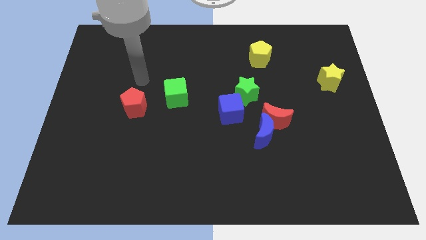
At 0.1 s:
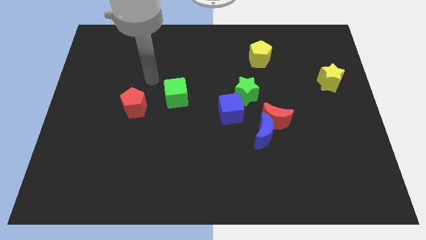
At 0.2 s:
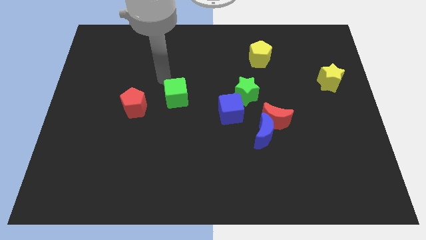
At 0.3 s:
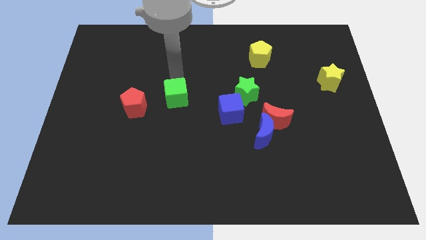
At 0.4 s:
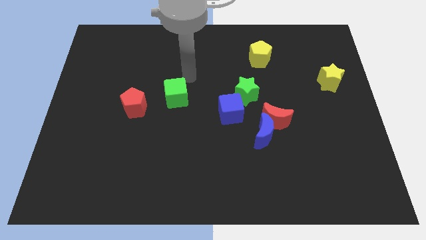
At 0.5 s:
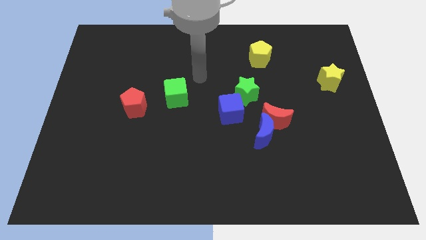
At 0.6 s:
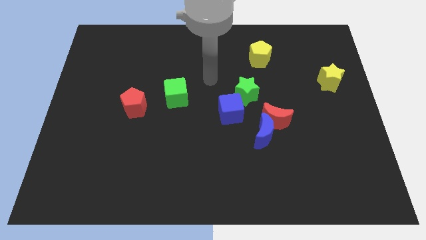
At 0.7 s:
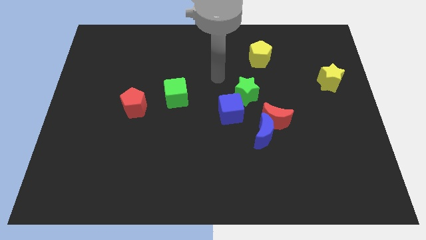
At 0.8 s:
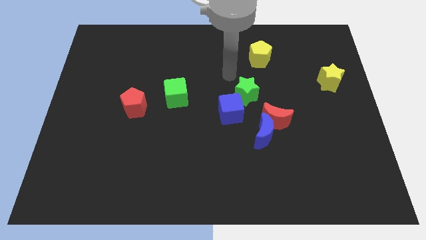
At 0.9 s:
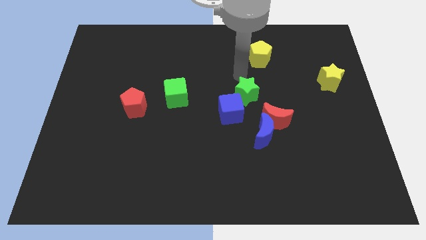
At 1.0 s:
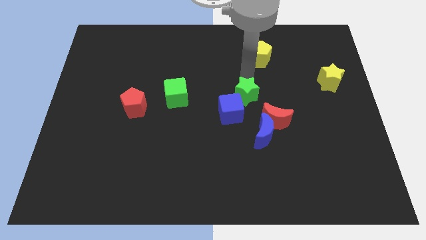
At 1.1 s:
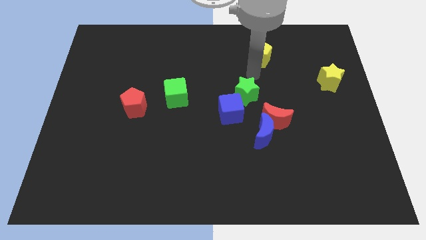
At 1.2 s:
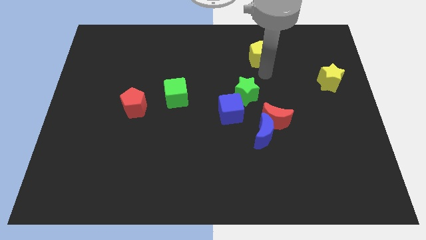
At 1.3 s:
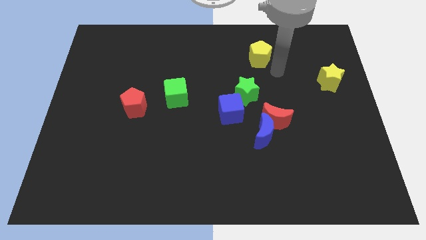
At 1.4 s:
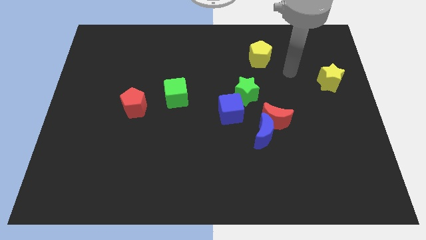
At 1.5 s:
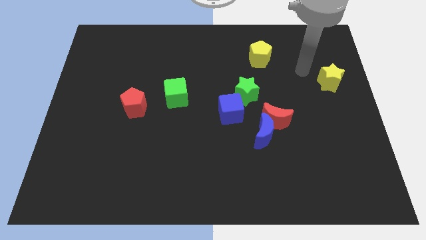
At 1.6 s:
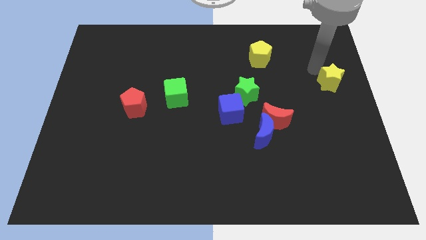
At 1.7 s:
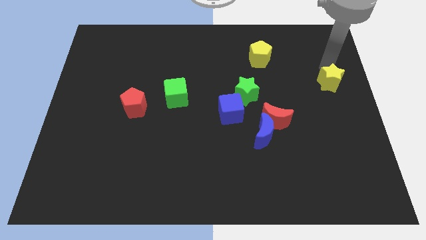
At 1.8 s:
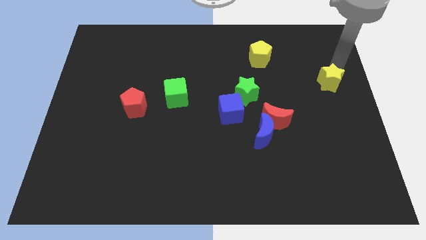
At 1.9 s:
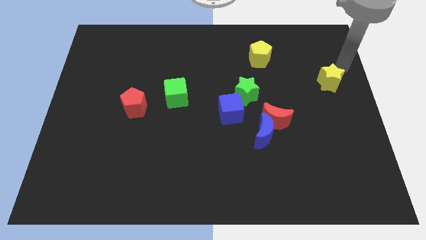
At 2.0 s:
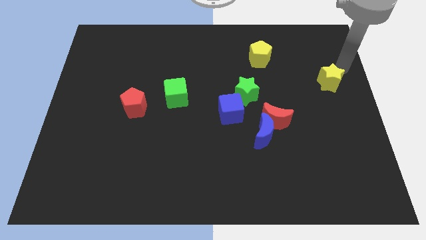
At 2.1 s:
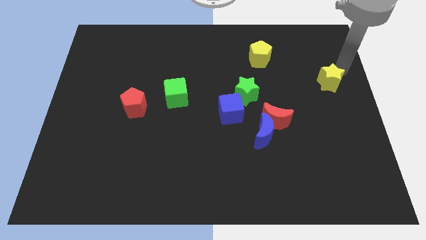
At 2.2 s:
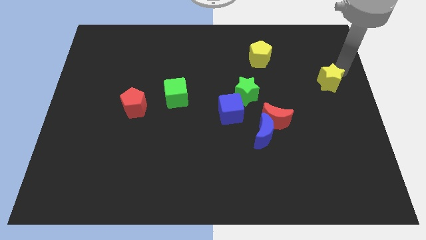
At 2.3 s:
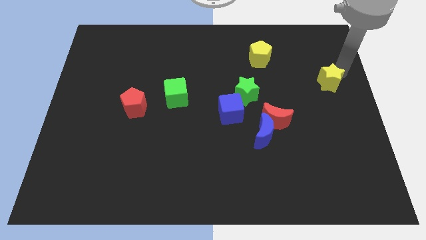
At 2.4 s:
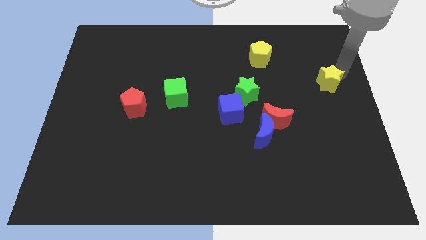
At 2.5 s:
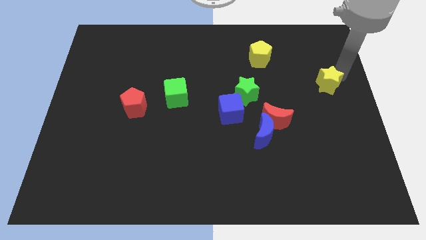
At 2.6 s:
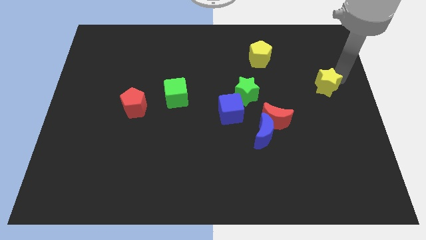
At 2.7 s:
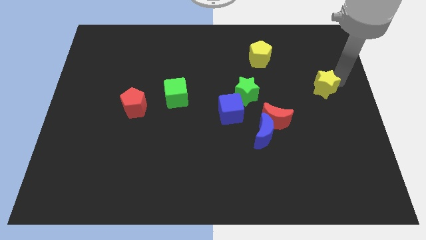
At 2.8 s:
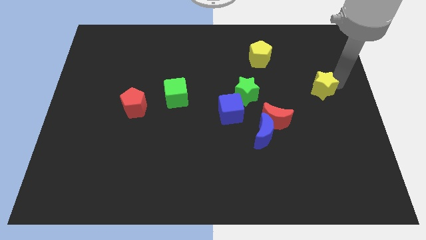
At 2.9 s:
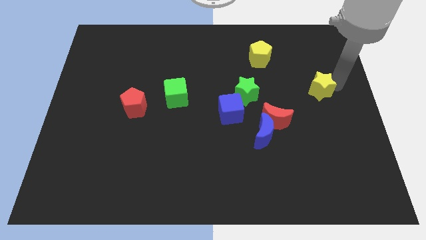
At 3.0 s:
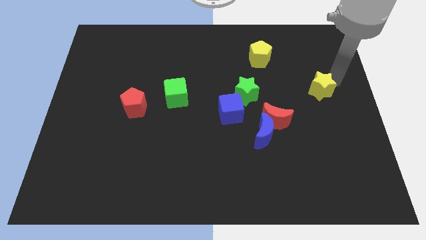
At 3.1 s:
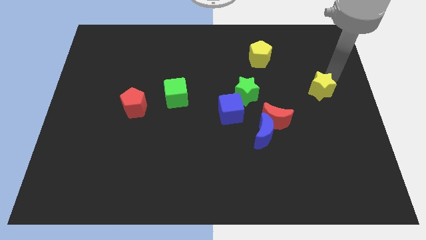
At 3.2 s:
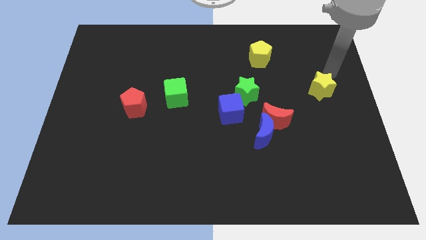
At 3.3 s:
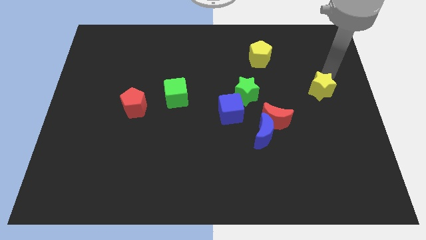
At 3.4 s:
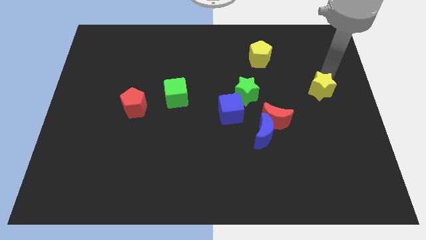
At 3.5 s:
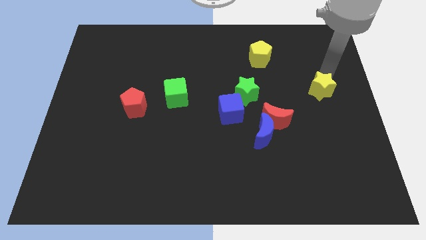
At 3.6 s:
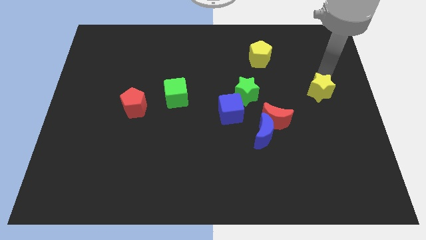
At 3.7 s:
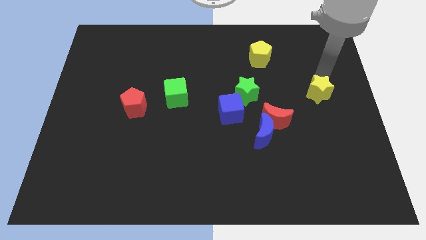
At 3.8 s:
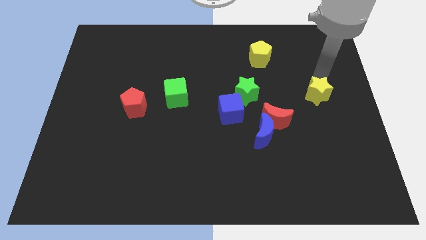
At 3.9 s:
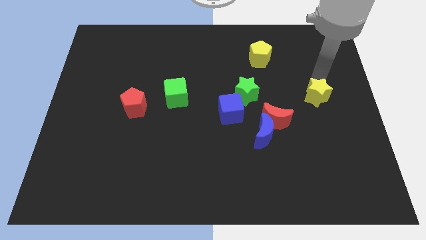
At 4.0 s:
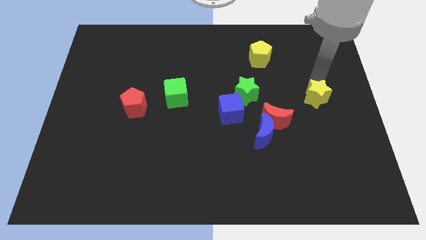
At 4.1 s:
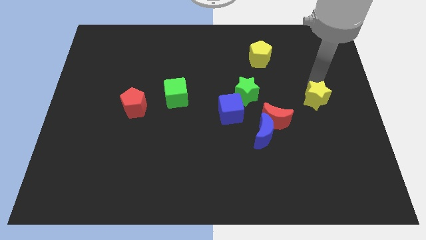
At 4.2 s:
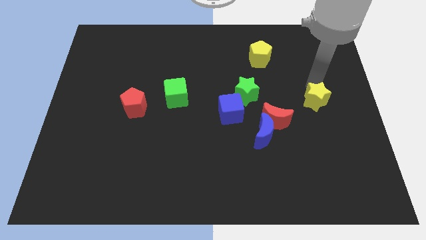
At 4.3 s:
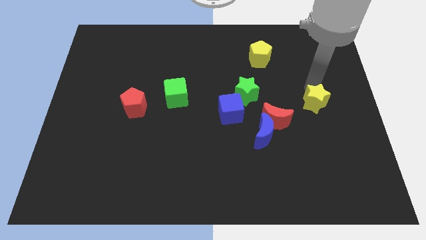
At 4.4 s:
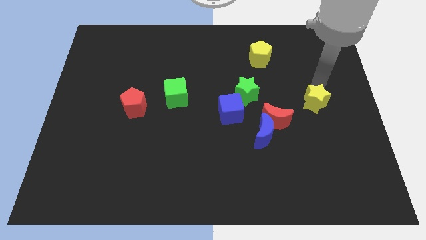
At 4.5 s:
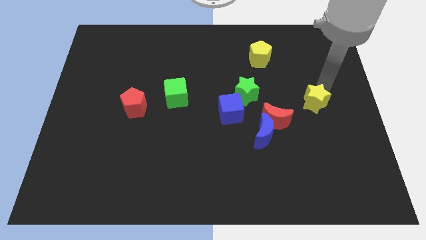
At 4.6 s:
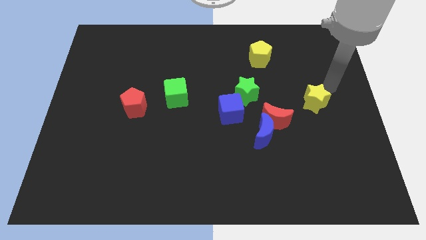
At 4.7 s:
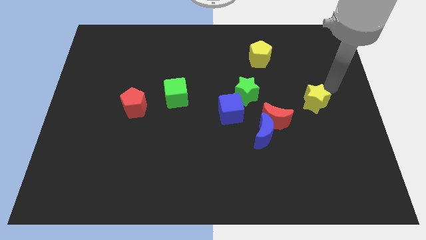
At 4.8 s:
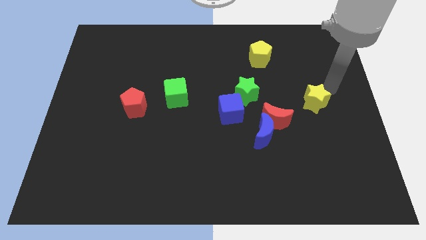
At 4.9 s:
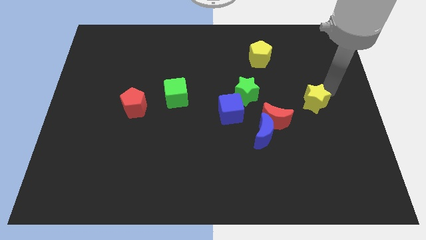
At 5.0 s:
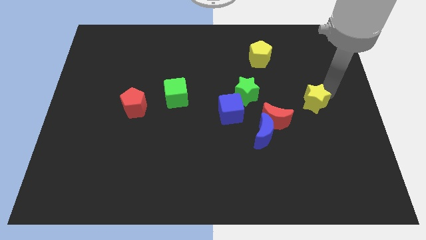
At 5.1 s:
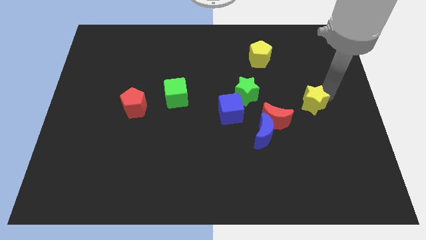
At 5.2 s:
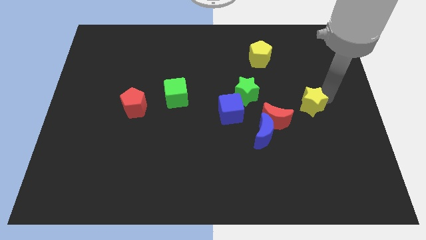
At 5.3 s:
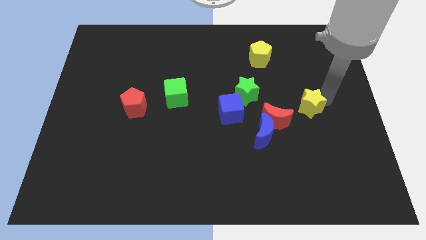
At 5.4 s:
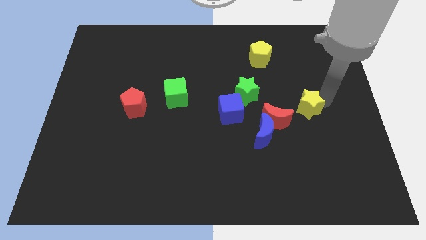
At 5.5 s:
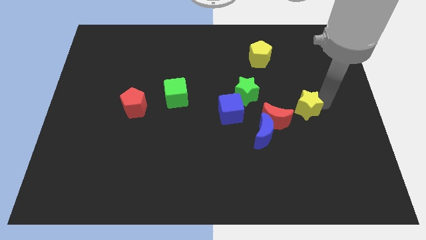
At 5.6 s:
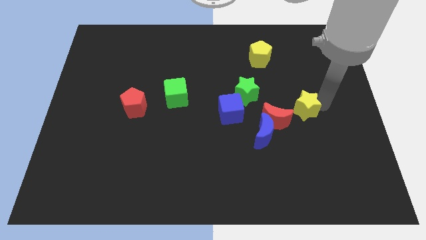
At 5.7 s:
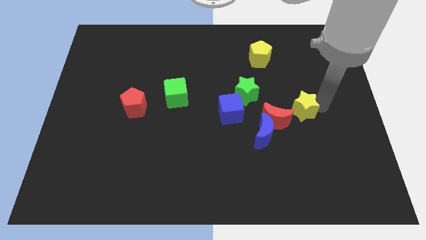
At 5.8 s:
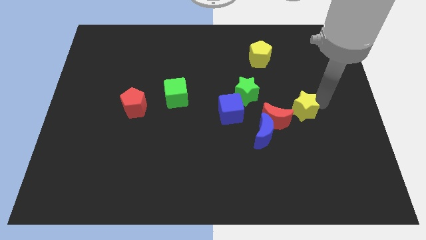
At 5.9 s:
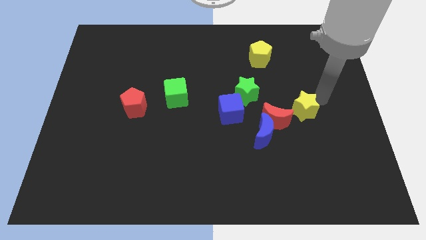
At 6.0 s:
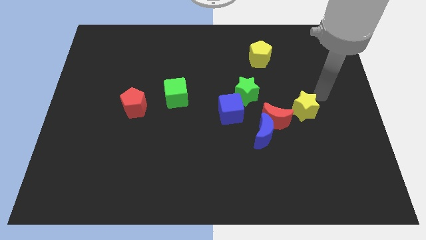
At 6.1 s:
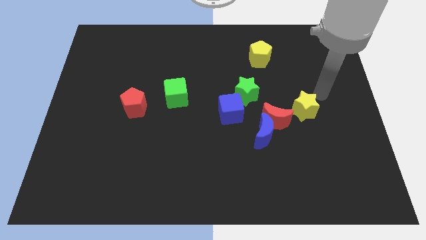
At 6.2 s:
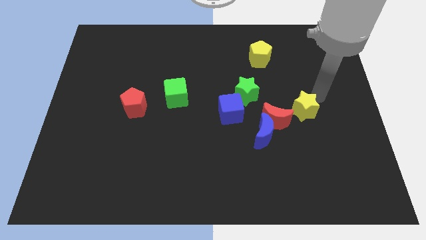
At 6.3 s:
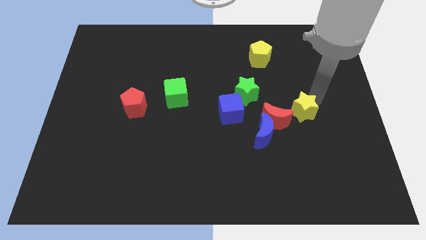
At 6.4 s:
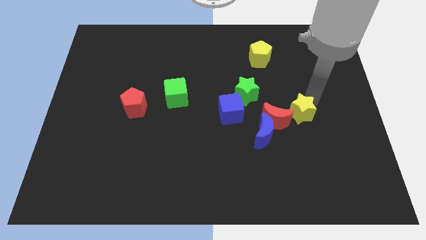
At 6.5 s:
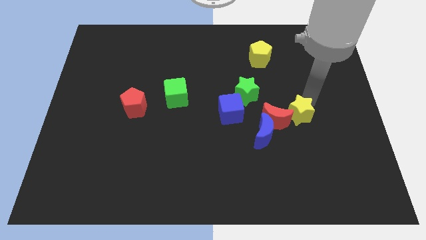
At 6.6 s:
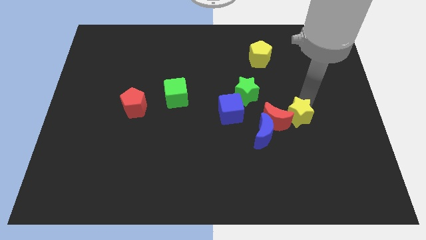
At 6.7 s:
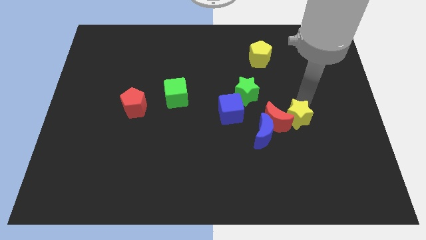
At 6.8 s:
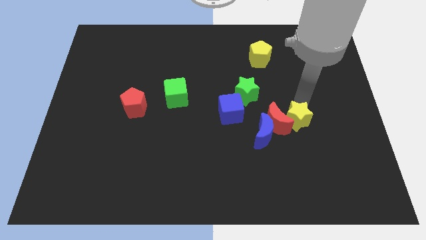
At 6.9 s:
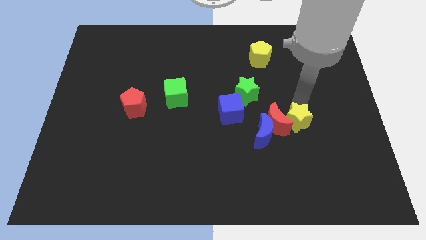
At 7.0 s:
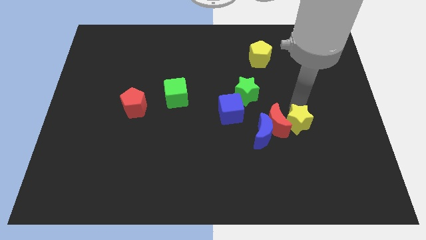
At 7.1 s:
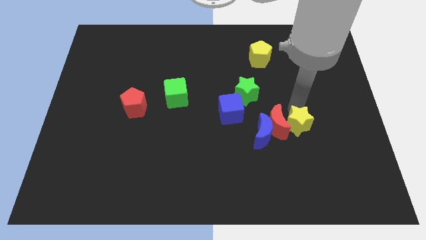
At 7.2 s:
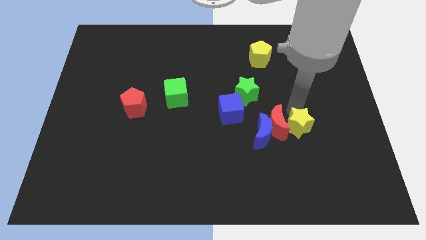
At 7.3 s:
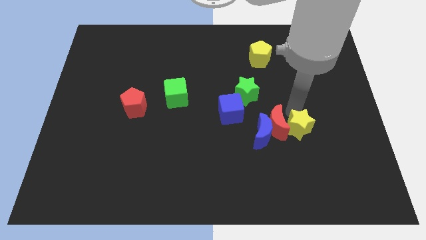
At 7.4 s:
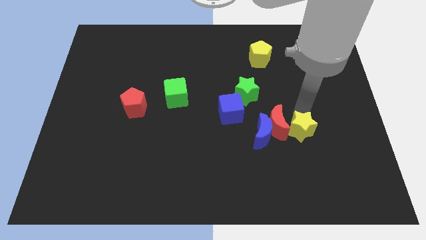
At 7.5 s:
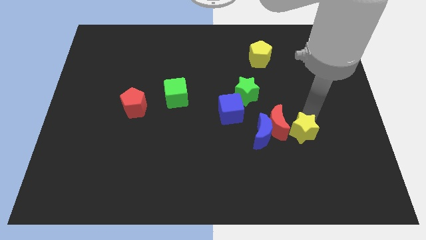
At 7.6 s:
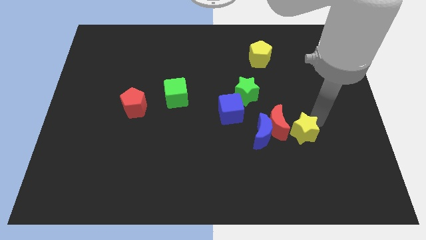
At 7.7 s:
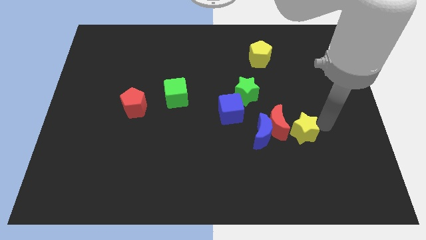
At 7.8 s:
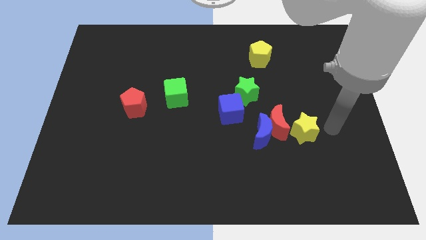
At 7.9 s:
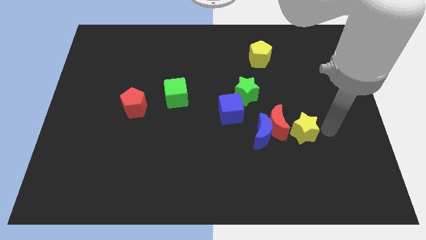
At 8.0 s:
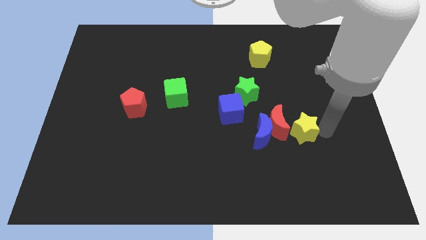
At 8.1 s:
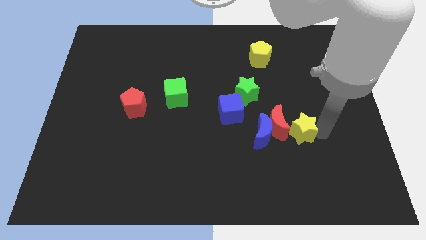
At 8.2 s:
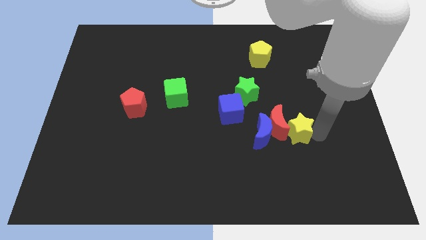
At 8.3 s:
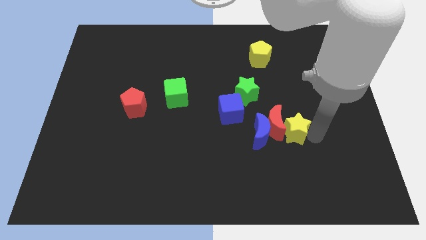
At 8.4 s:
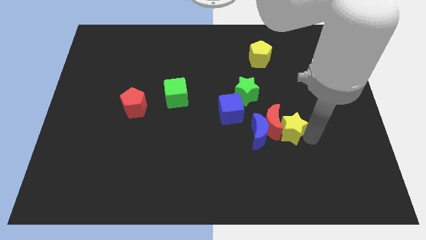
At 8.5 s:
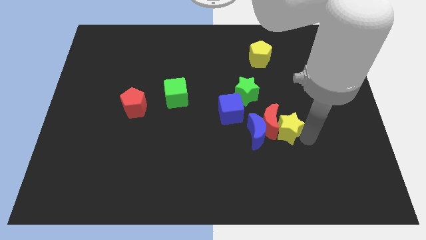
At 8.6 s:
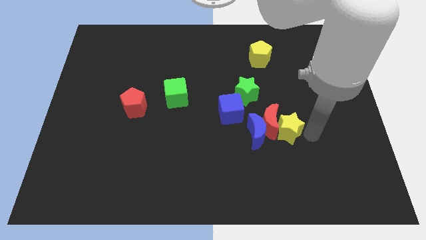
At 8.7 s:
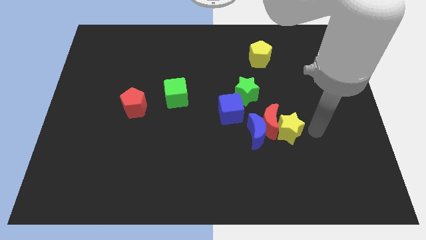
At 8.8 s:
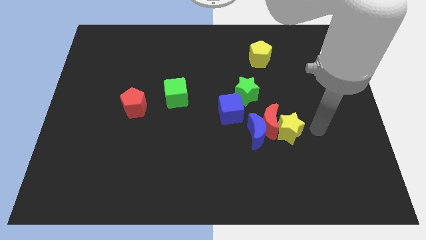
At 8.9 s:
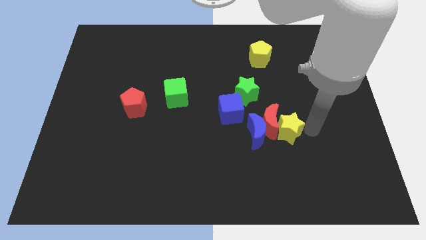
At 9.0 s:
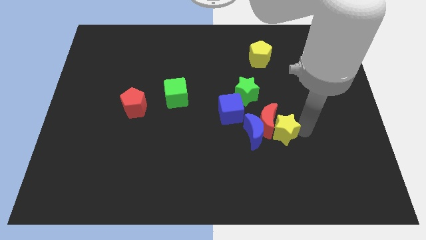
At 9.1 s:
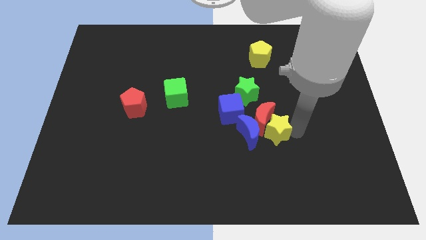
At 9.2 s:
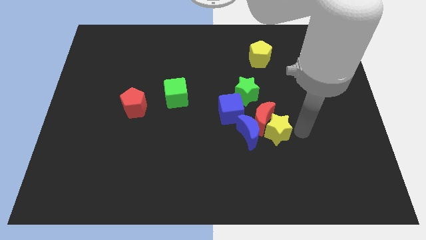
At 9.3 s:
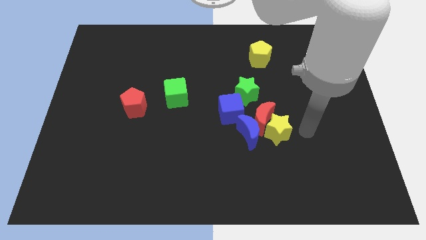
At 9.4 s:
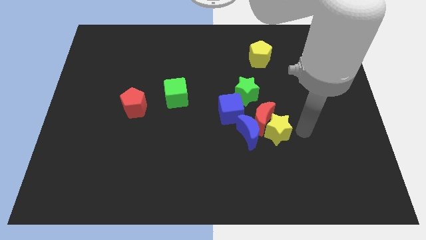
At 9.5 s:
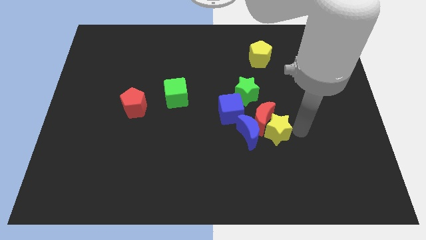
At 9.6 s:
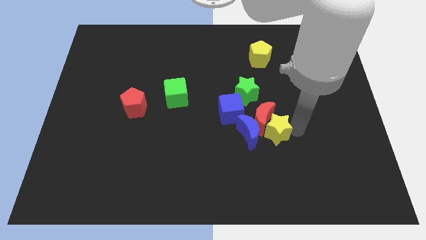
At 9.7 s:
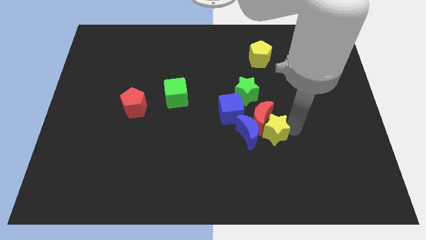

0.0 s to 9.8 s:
put the yellow star close to the blue moon
